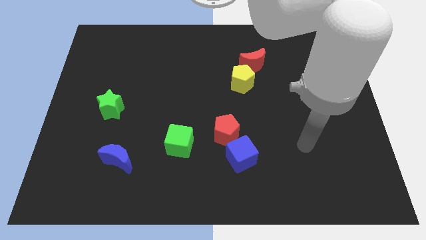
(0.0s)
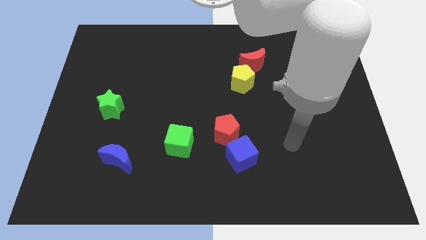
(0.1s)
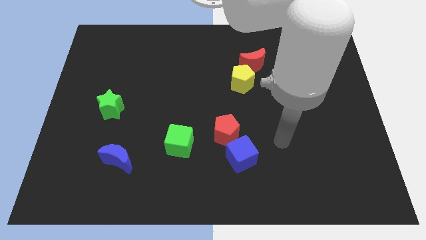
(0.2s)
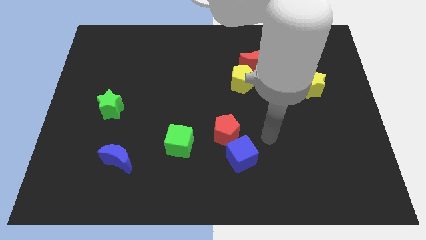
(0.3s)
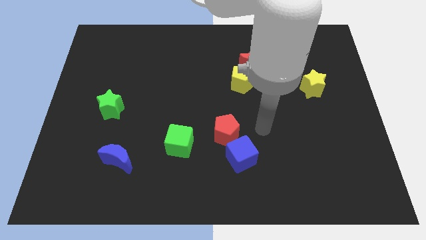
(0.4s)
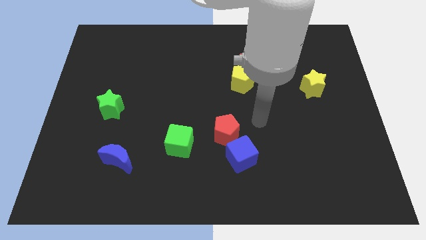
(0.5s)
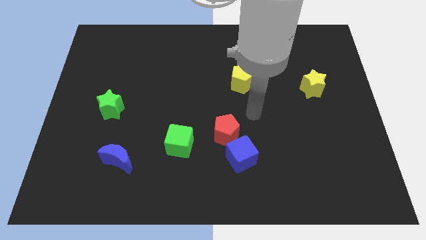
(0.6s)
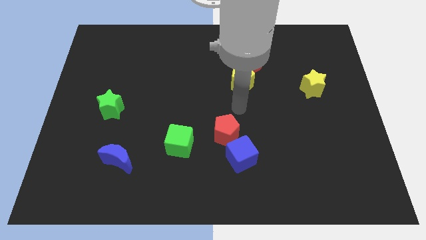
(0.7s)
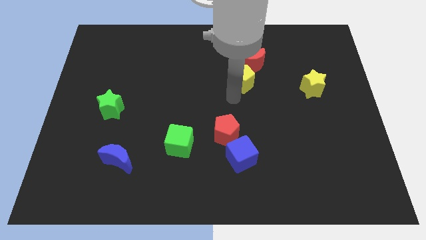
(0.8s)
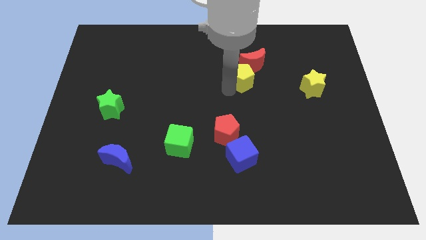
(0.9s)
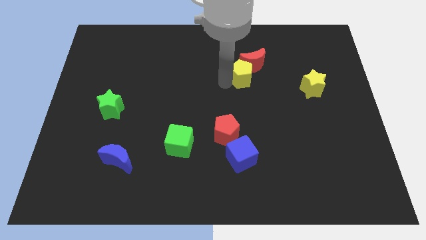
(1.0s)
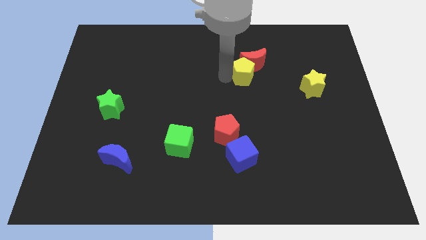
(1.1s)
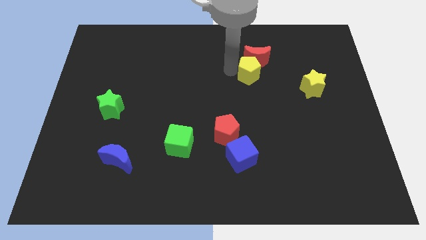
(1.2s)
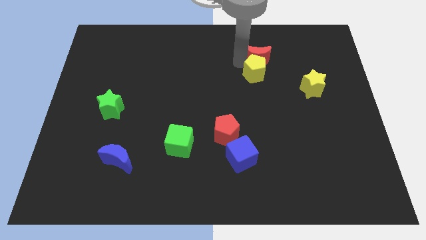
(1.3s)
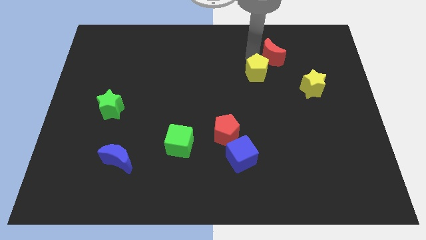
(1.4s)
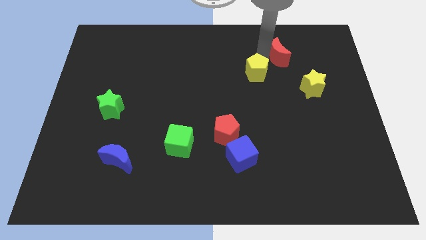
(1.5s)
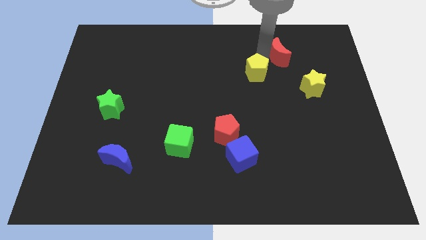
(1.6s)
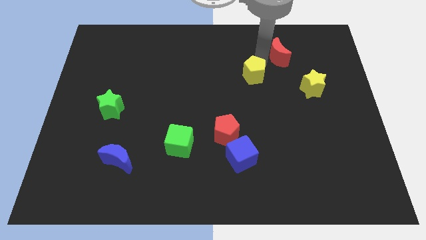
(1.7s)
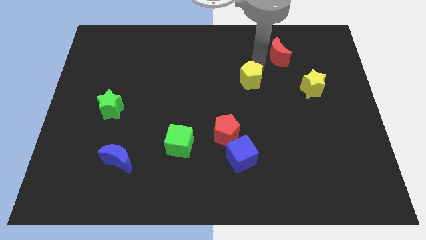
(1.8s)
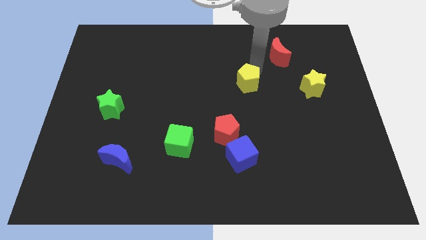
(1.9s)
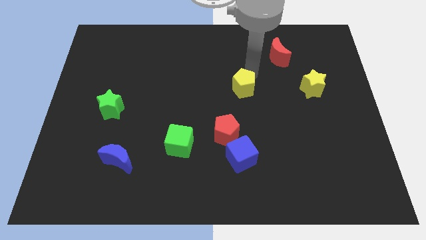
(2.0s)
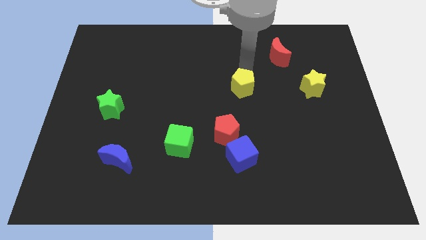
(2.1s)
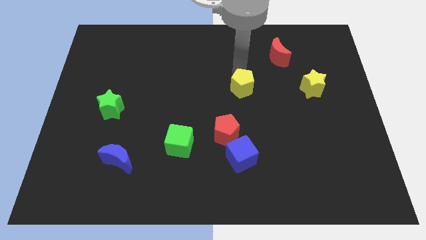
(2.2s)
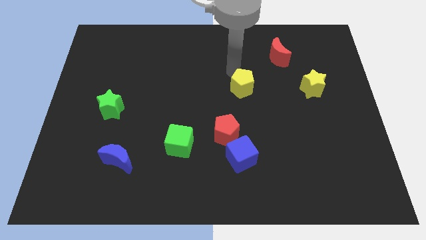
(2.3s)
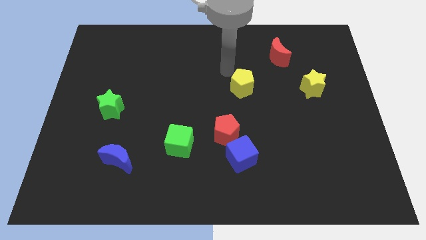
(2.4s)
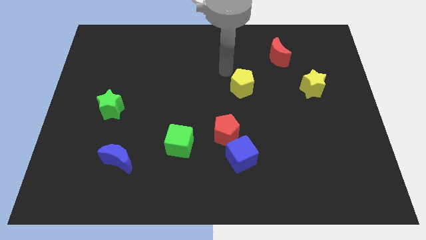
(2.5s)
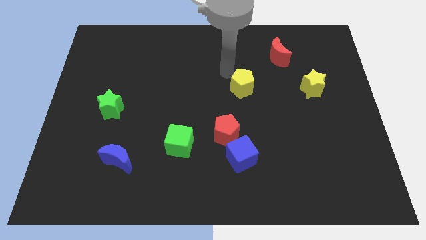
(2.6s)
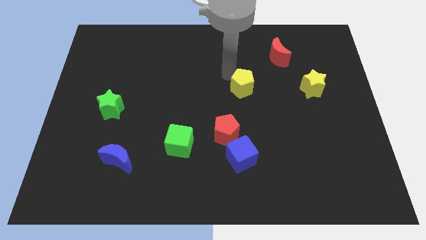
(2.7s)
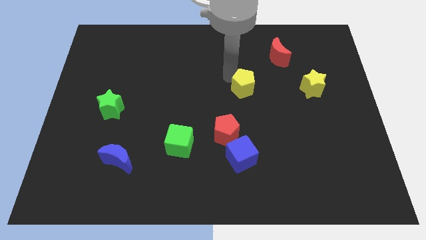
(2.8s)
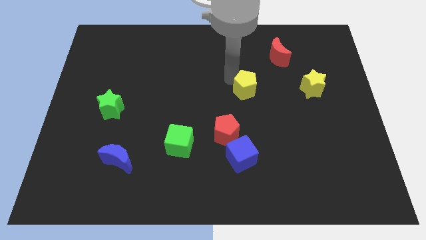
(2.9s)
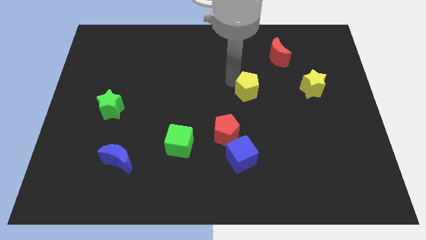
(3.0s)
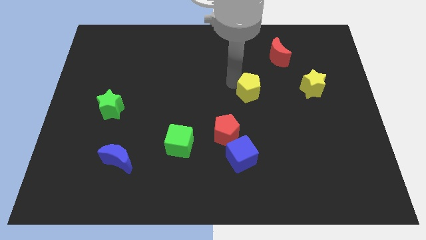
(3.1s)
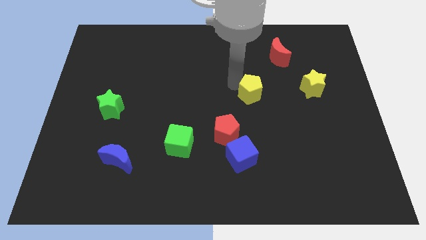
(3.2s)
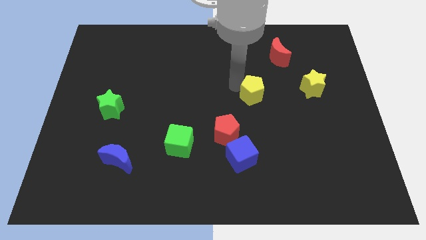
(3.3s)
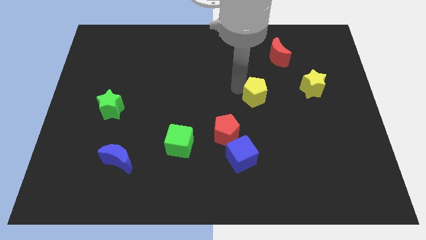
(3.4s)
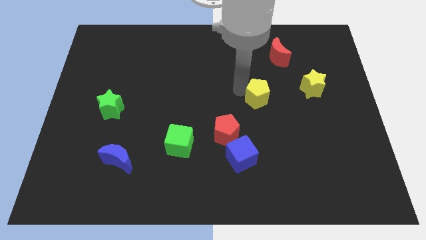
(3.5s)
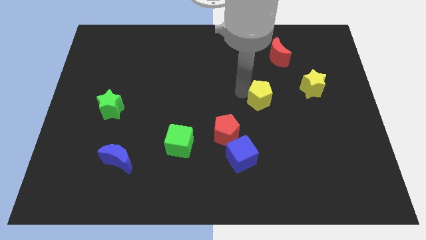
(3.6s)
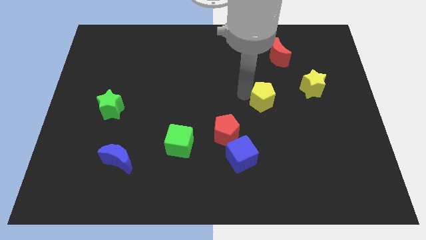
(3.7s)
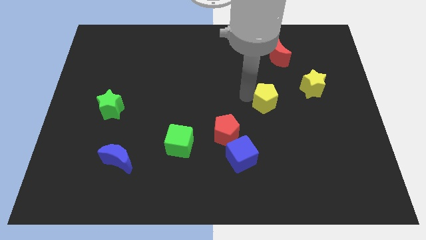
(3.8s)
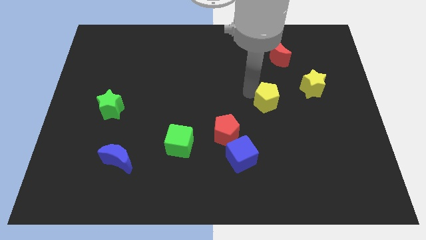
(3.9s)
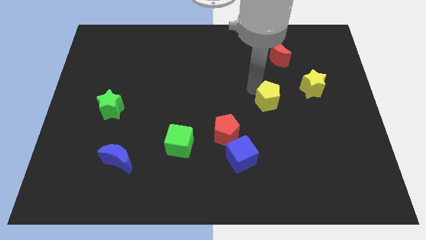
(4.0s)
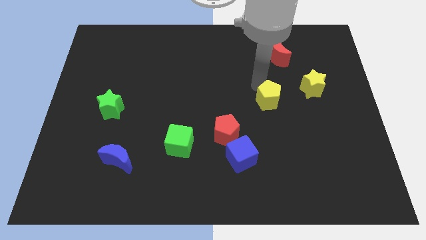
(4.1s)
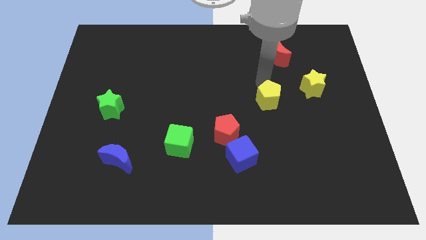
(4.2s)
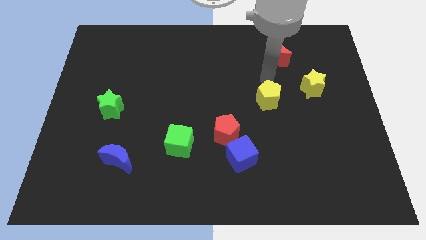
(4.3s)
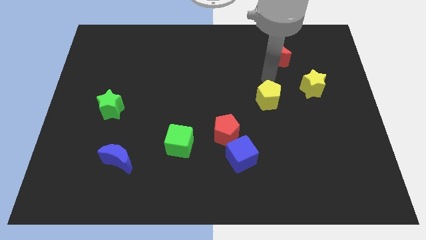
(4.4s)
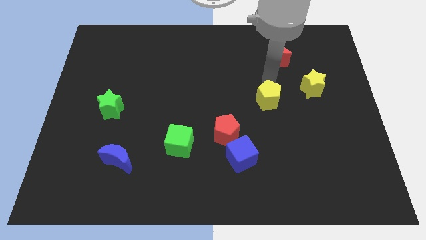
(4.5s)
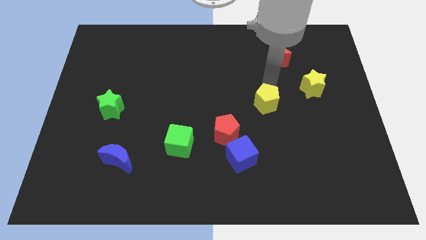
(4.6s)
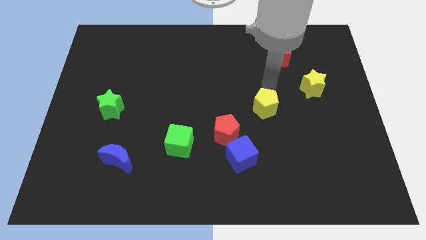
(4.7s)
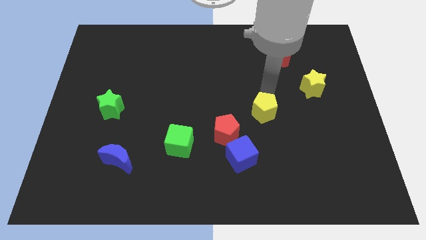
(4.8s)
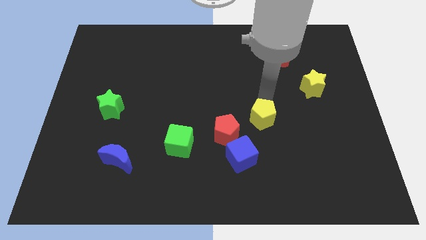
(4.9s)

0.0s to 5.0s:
push the yellow pentagon just right of the red pentagon

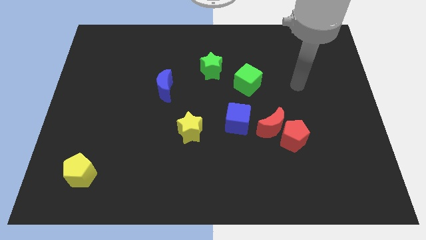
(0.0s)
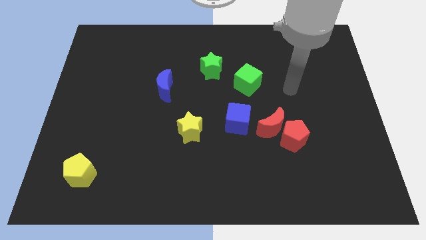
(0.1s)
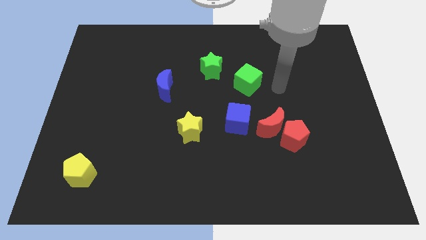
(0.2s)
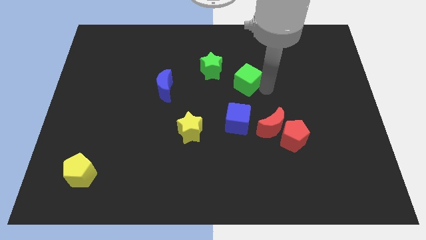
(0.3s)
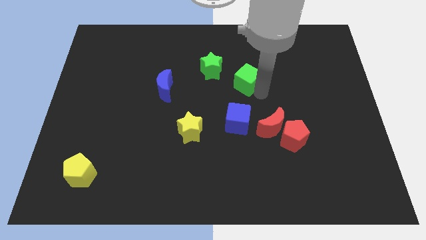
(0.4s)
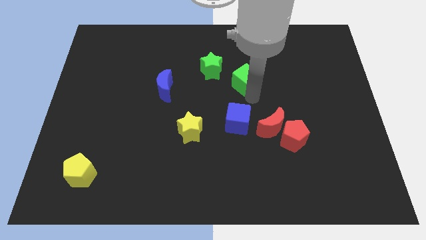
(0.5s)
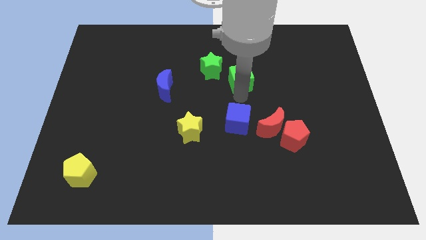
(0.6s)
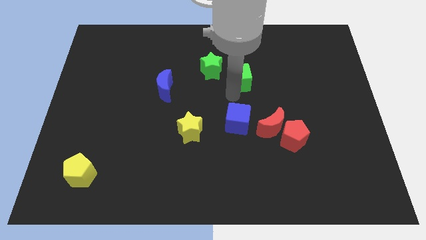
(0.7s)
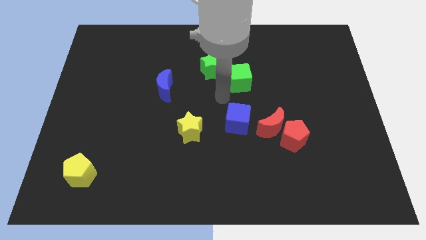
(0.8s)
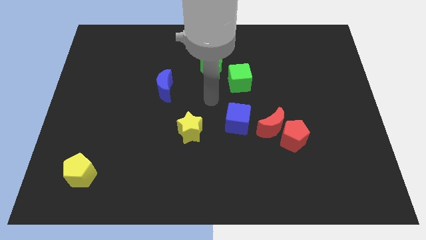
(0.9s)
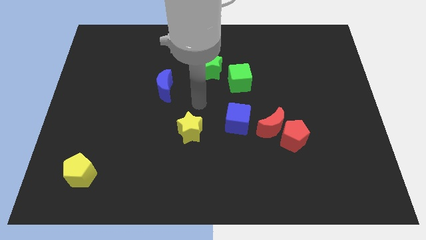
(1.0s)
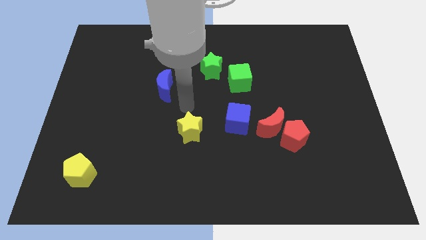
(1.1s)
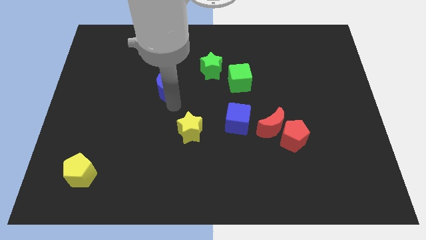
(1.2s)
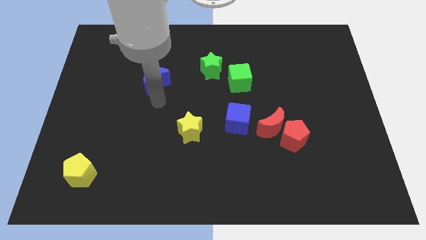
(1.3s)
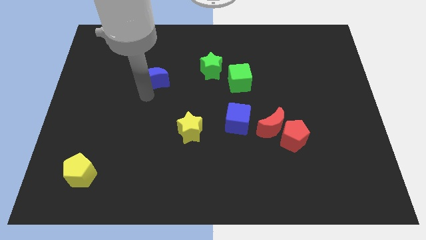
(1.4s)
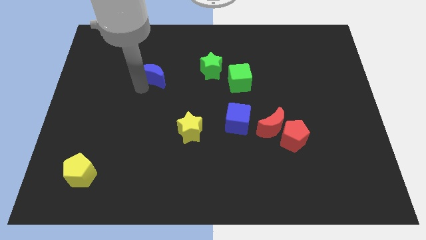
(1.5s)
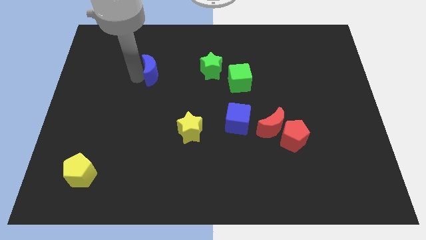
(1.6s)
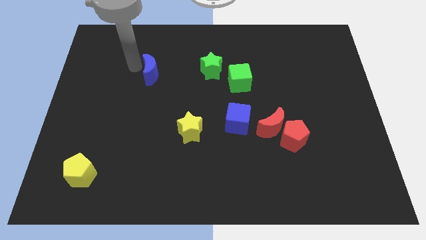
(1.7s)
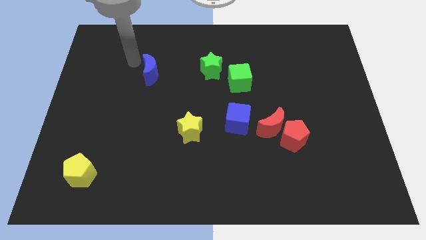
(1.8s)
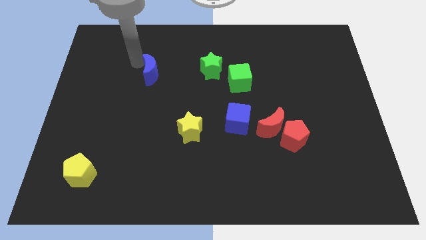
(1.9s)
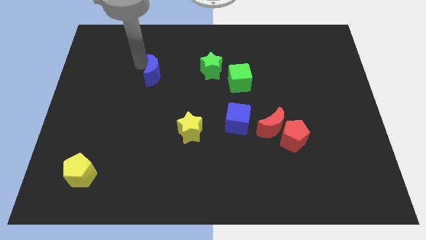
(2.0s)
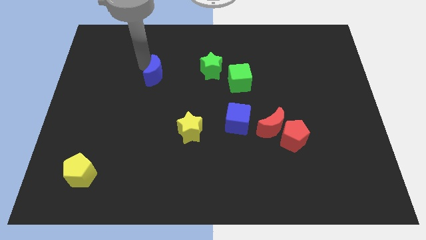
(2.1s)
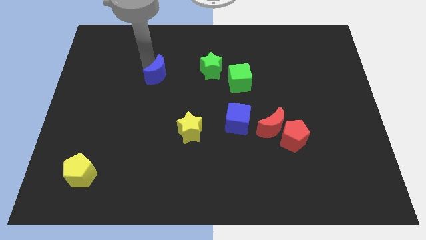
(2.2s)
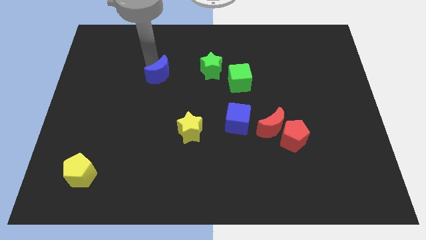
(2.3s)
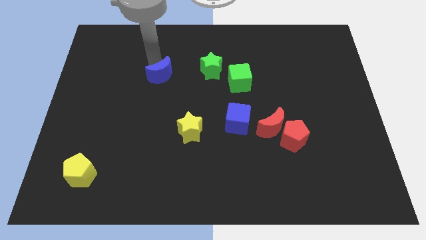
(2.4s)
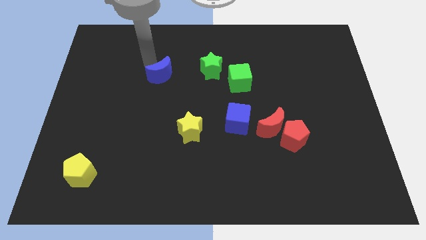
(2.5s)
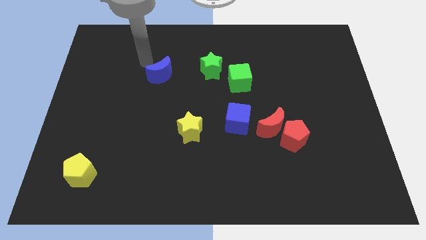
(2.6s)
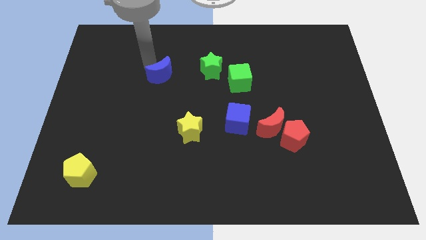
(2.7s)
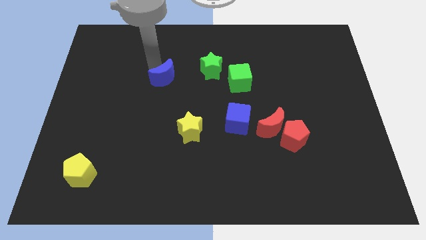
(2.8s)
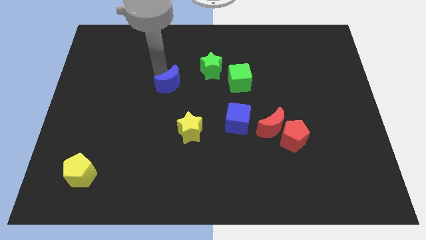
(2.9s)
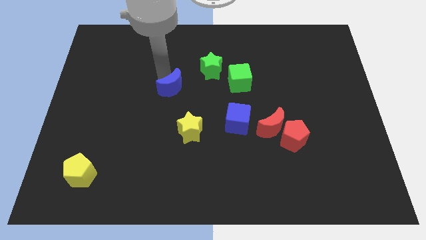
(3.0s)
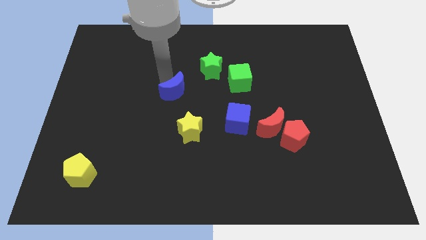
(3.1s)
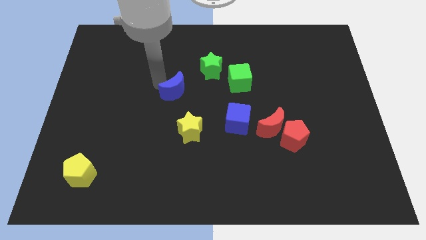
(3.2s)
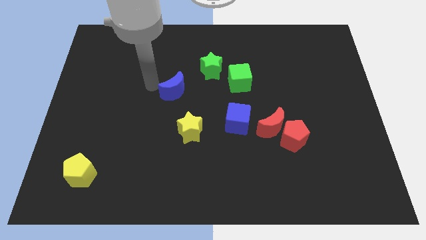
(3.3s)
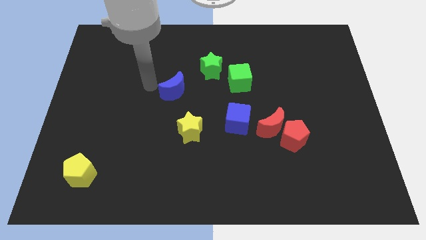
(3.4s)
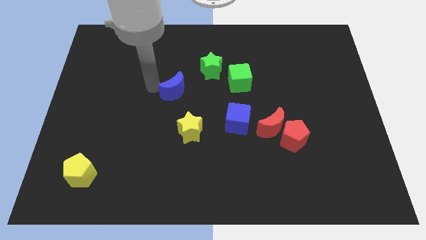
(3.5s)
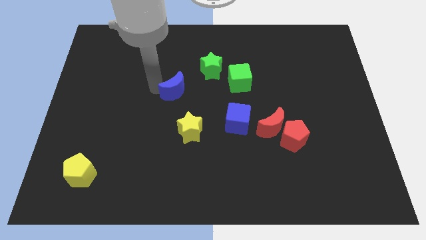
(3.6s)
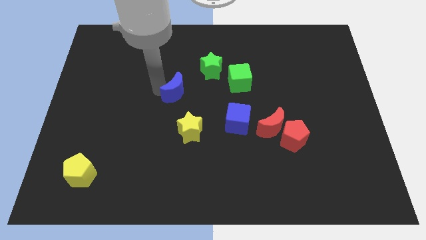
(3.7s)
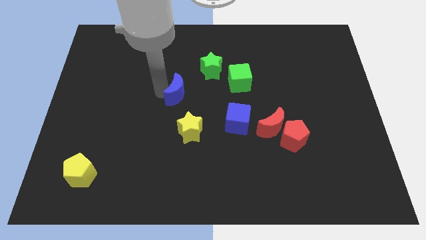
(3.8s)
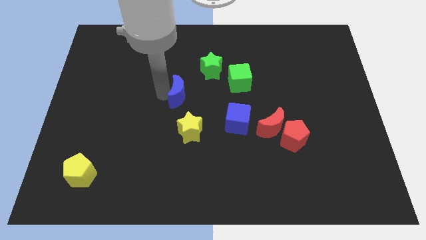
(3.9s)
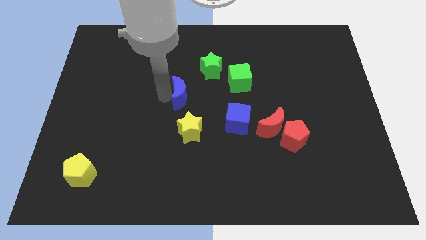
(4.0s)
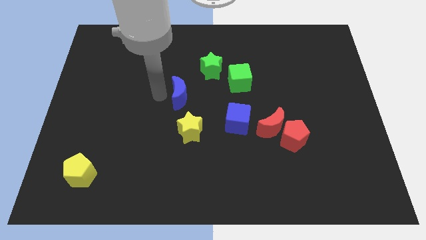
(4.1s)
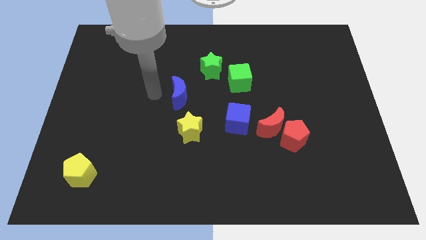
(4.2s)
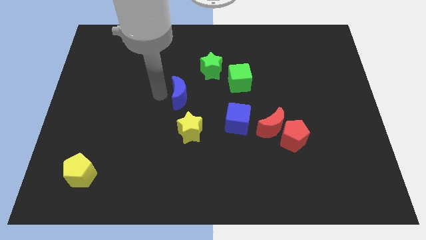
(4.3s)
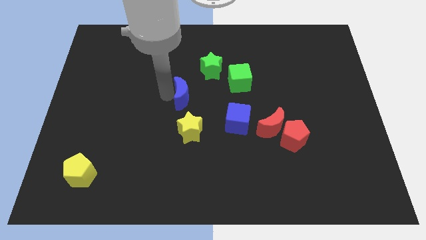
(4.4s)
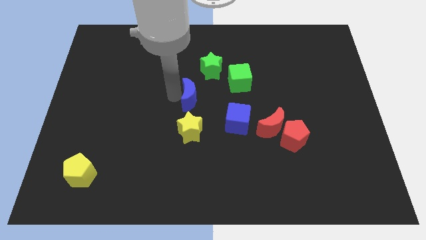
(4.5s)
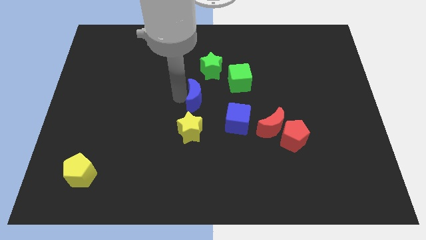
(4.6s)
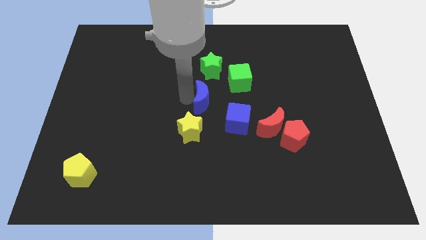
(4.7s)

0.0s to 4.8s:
slide the blue moon diagonally down and to the left of the green cube
